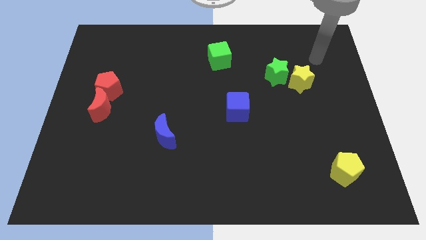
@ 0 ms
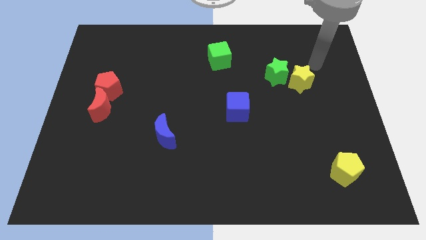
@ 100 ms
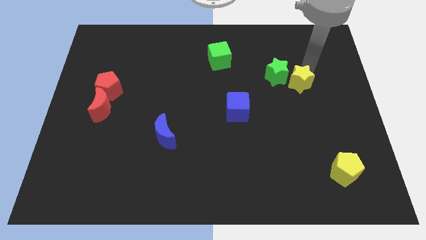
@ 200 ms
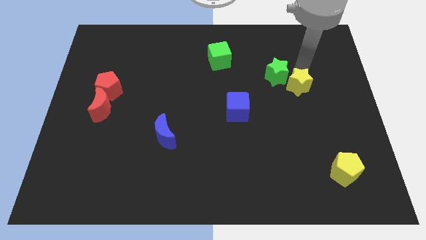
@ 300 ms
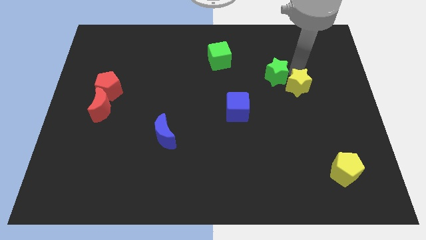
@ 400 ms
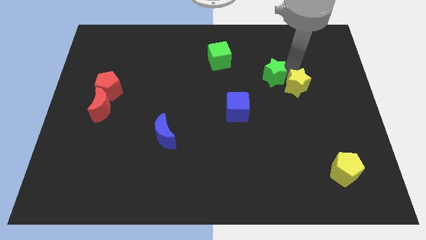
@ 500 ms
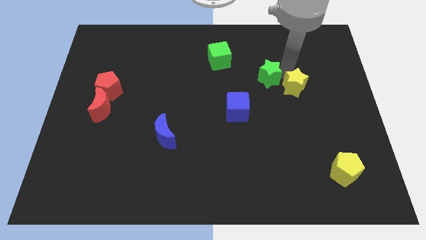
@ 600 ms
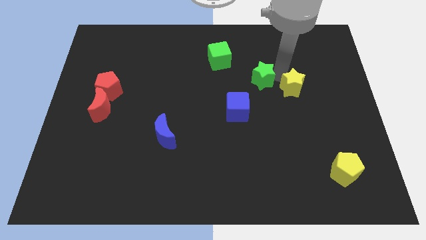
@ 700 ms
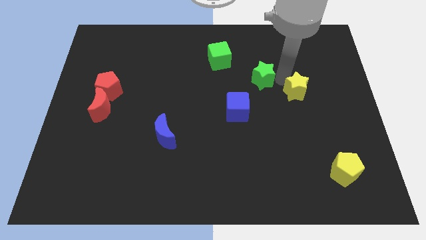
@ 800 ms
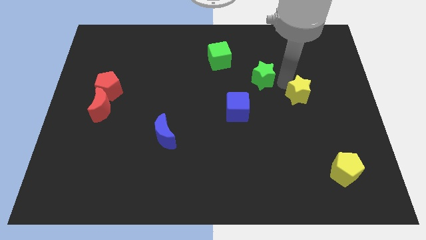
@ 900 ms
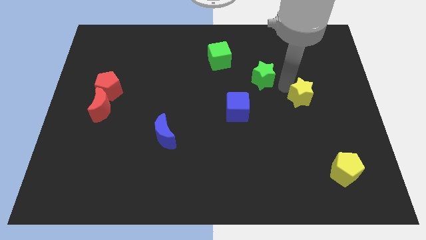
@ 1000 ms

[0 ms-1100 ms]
move the green star away from the yellow star

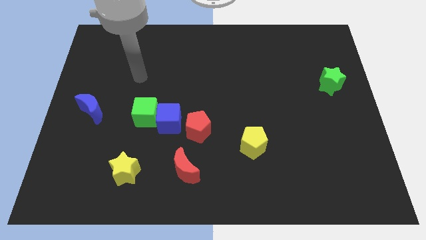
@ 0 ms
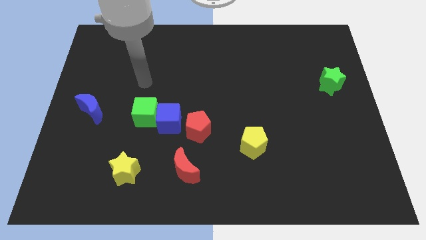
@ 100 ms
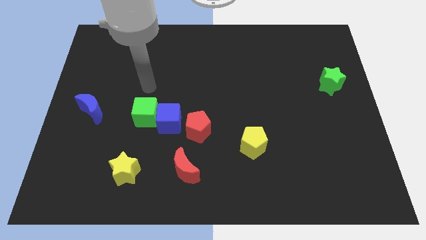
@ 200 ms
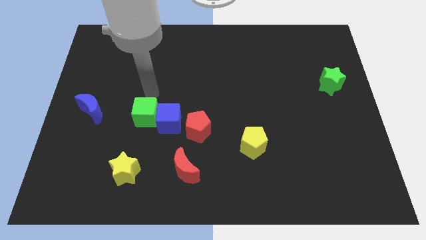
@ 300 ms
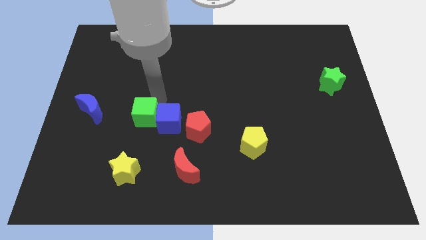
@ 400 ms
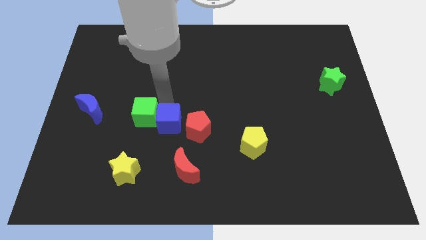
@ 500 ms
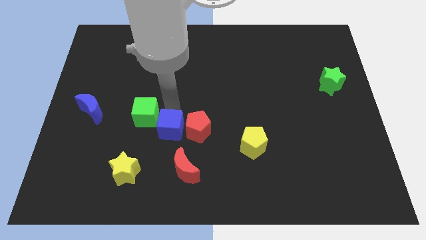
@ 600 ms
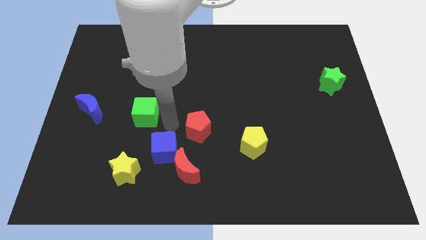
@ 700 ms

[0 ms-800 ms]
move the green cube away from the blue cube

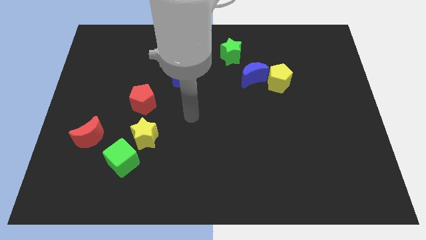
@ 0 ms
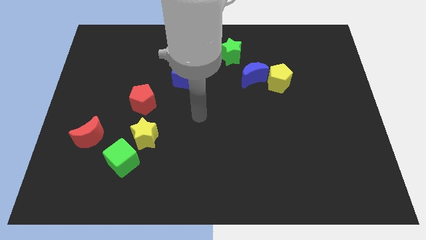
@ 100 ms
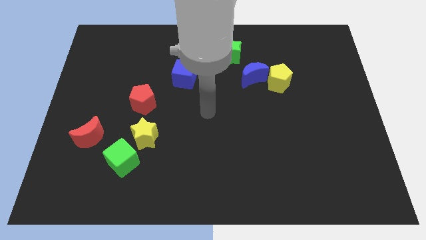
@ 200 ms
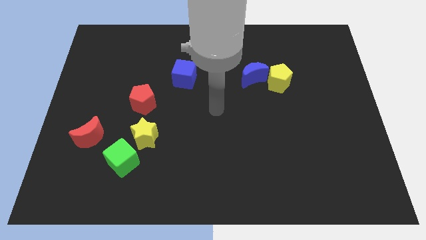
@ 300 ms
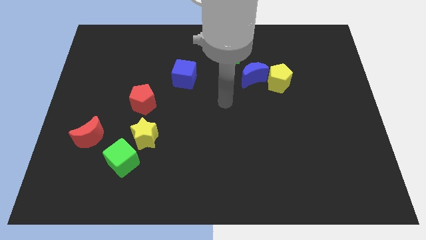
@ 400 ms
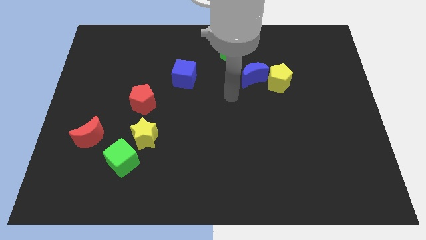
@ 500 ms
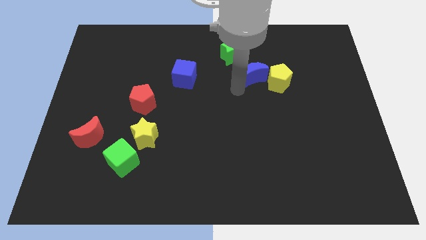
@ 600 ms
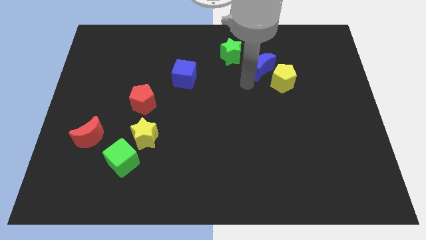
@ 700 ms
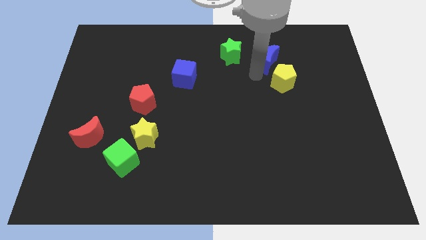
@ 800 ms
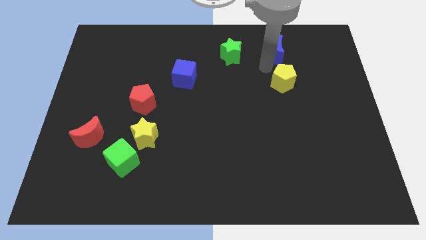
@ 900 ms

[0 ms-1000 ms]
pull the yellow pentagon apart from the blue moon

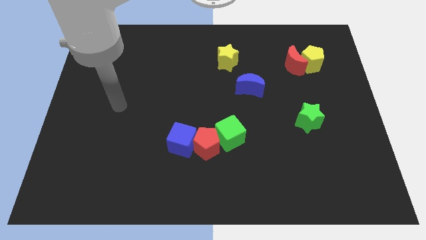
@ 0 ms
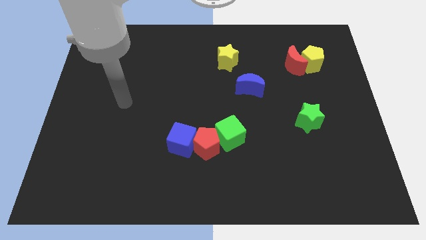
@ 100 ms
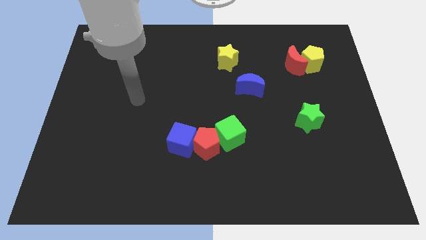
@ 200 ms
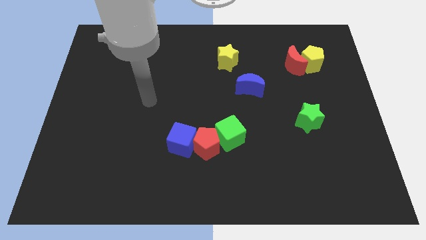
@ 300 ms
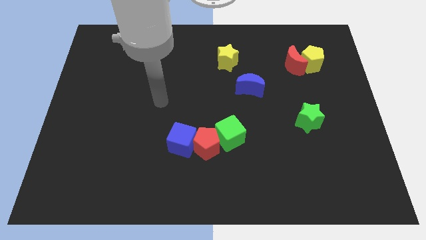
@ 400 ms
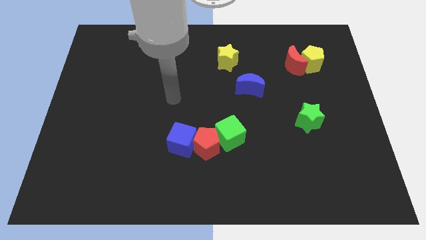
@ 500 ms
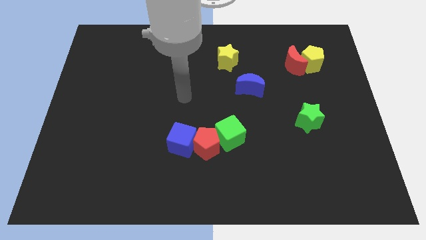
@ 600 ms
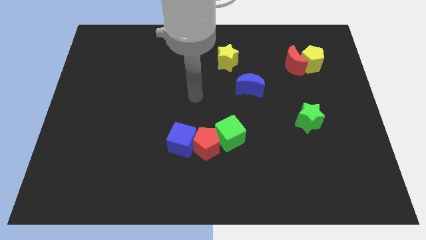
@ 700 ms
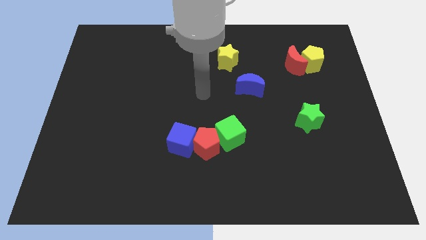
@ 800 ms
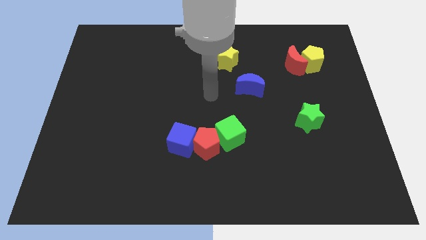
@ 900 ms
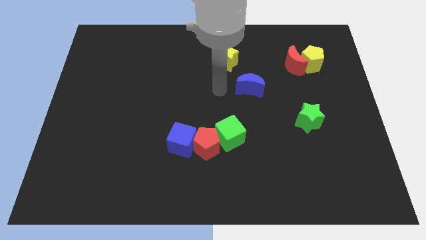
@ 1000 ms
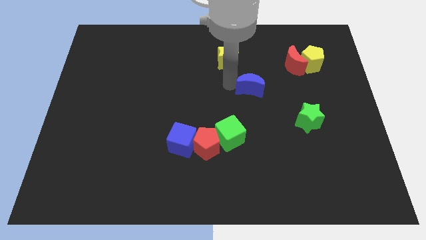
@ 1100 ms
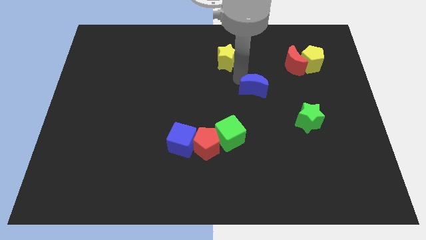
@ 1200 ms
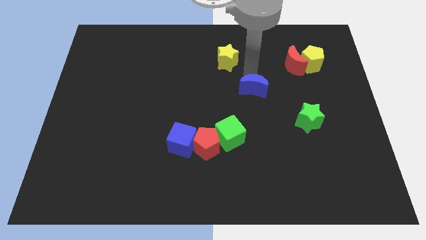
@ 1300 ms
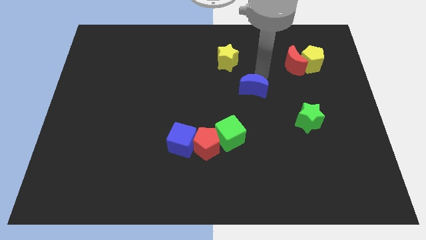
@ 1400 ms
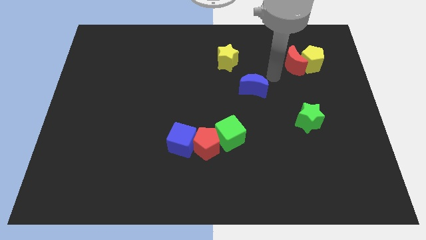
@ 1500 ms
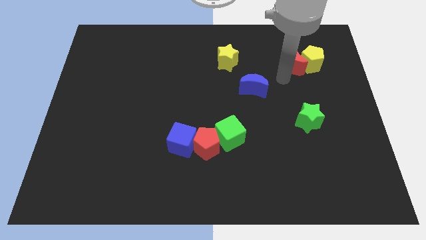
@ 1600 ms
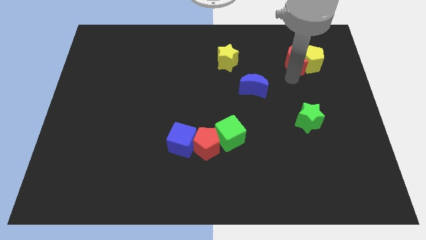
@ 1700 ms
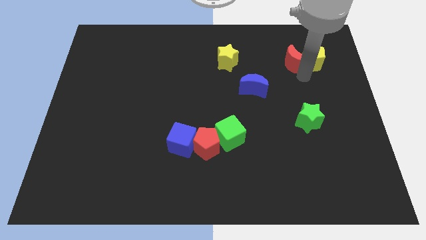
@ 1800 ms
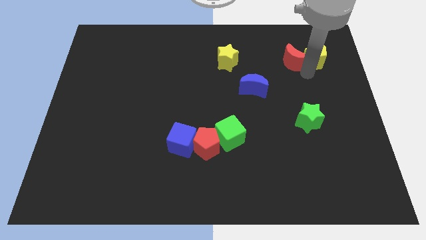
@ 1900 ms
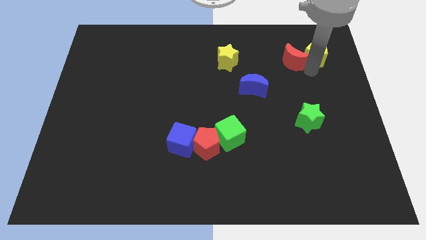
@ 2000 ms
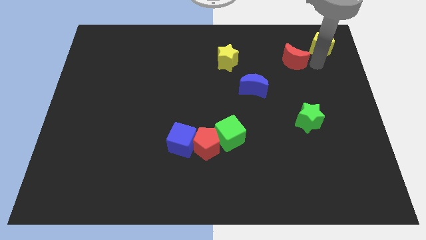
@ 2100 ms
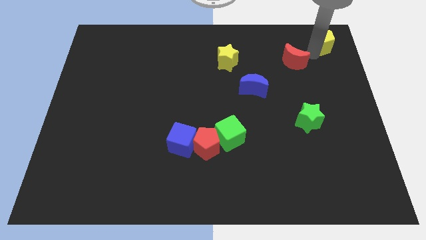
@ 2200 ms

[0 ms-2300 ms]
move the red moon away from the yellow pentagon

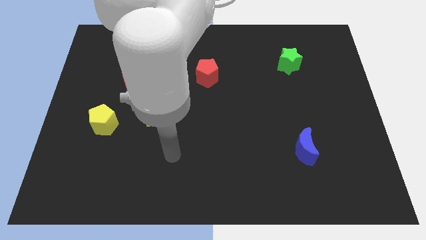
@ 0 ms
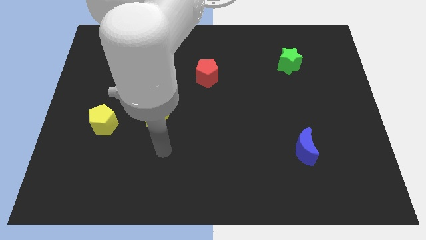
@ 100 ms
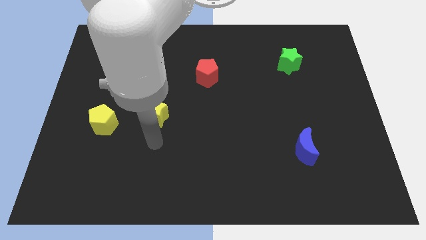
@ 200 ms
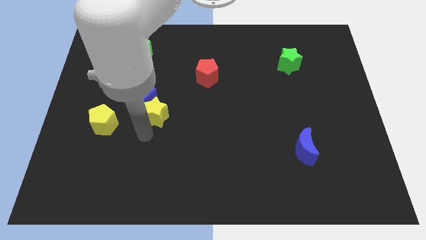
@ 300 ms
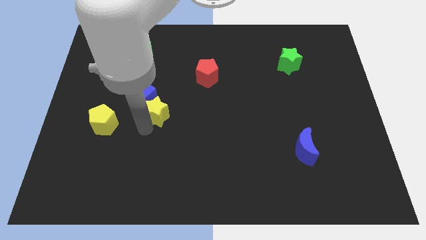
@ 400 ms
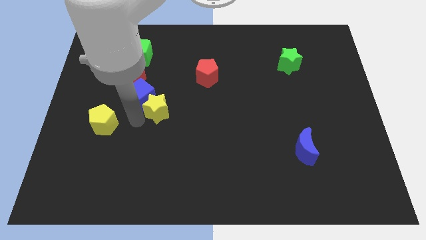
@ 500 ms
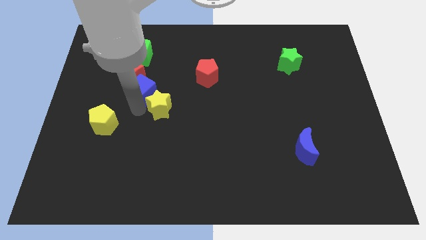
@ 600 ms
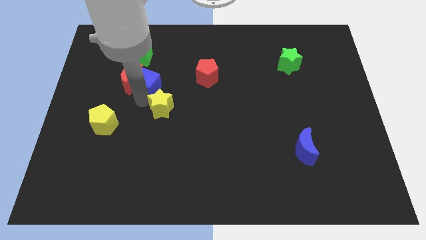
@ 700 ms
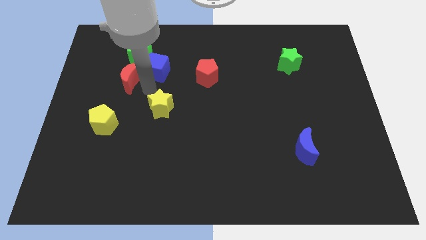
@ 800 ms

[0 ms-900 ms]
separate the yellow star from the blue cube

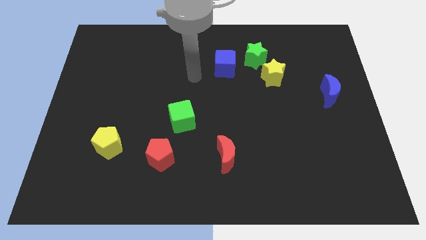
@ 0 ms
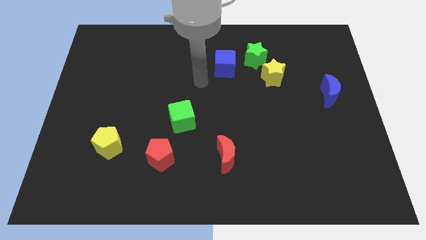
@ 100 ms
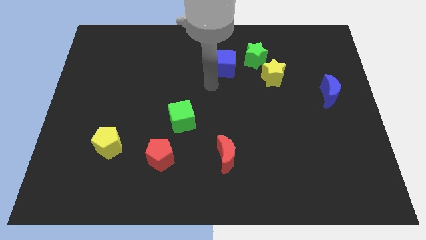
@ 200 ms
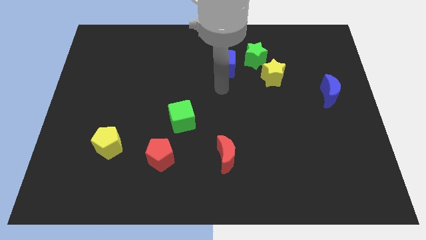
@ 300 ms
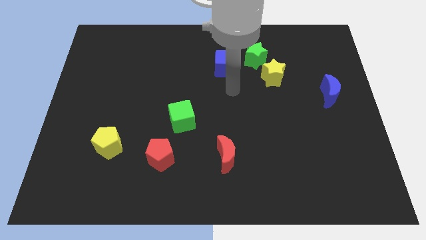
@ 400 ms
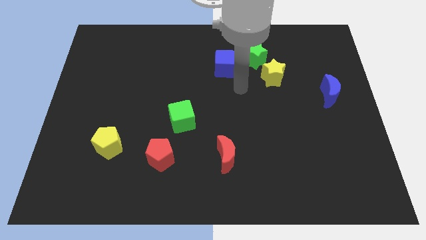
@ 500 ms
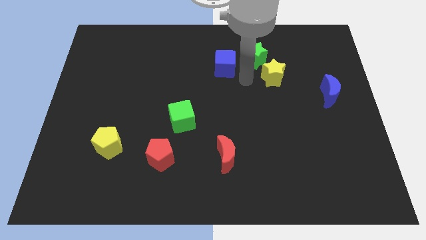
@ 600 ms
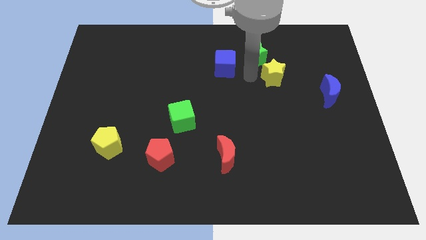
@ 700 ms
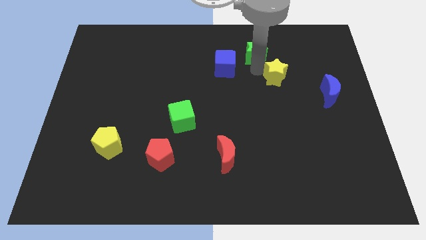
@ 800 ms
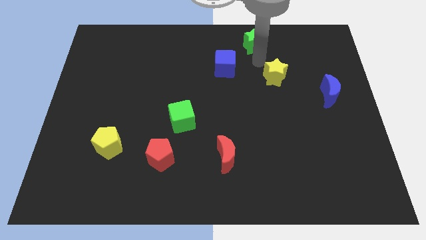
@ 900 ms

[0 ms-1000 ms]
separate the yellow star from the green star

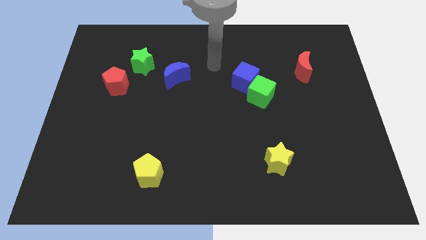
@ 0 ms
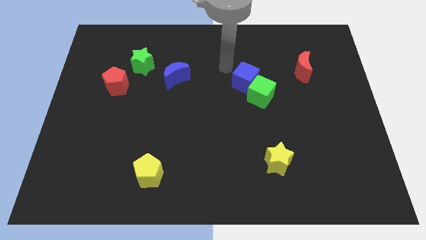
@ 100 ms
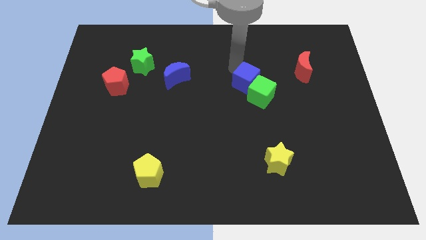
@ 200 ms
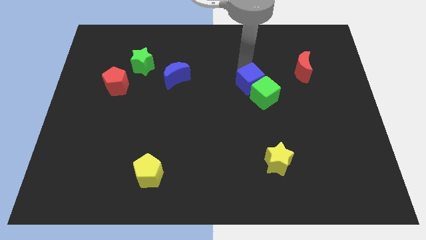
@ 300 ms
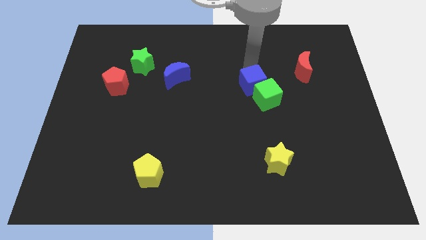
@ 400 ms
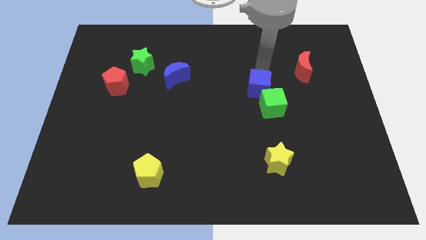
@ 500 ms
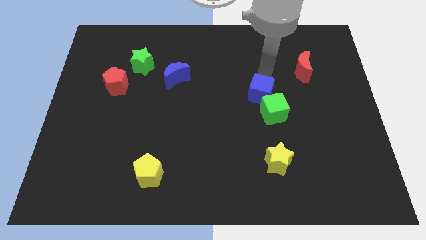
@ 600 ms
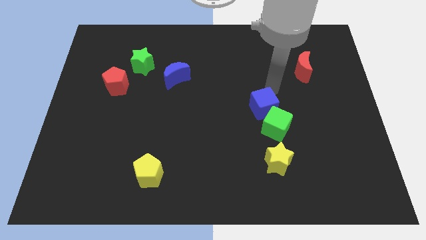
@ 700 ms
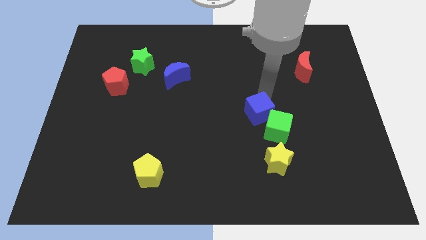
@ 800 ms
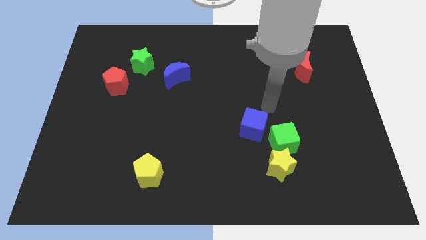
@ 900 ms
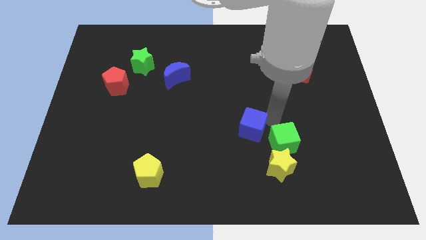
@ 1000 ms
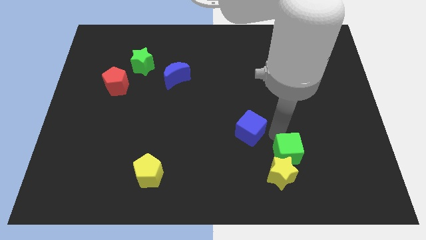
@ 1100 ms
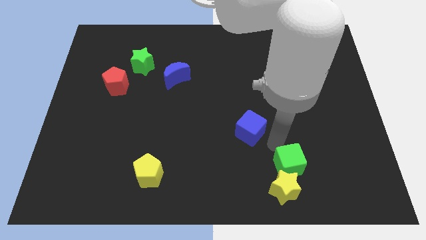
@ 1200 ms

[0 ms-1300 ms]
separate the blue cube from the green cube

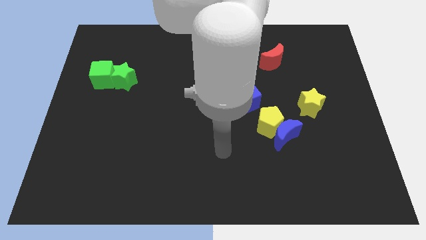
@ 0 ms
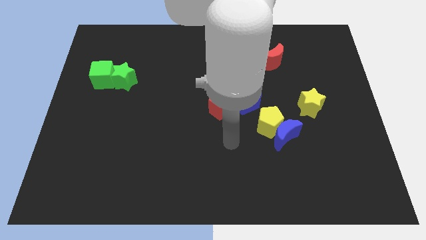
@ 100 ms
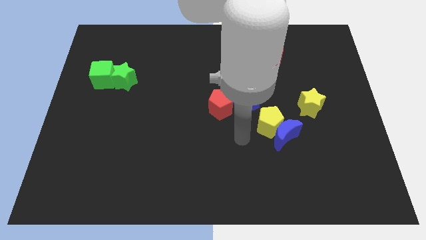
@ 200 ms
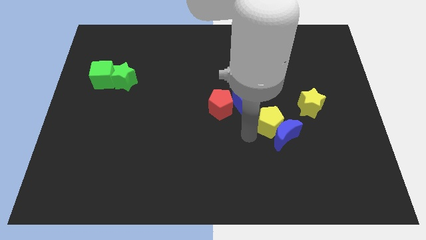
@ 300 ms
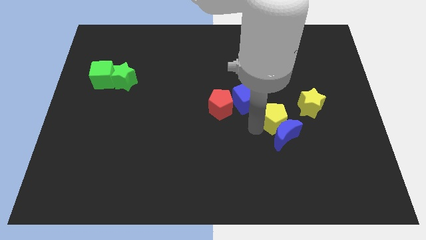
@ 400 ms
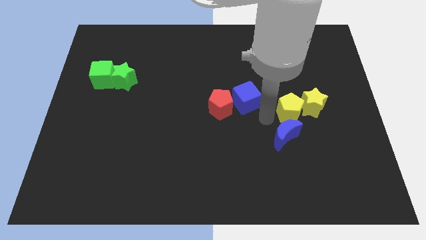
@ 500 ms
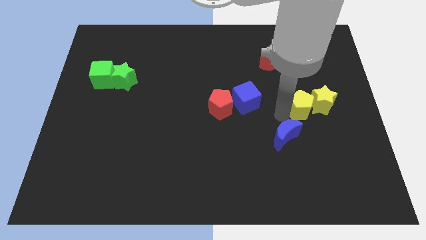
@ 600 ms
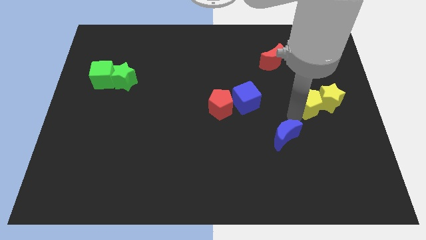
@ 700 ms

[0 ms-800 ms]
move the blue moon away from the yellow pentagon
